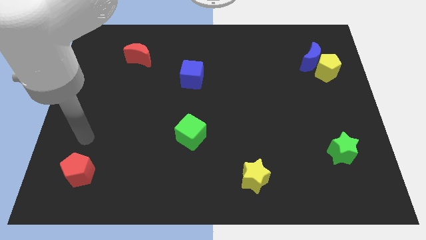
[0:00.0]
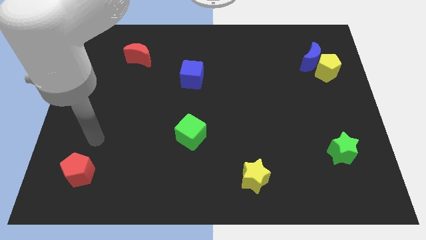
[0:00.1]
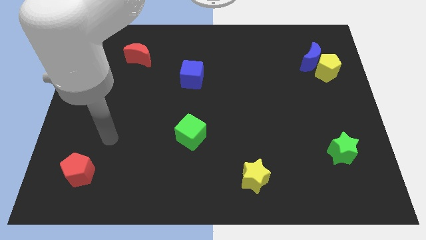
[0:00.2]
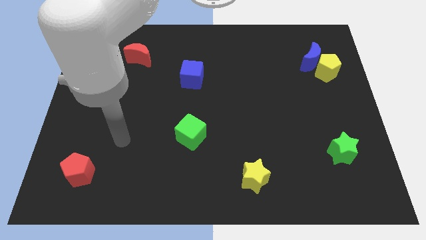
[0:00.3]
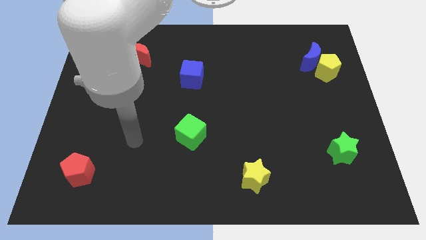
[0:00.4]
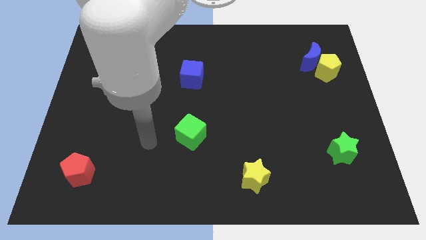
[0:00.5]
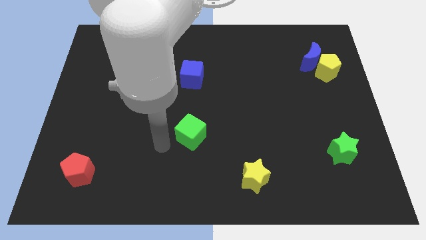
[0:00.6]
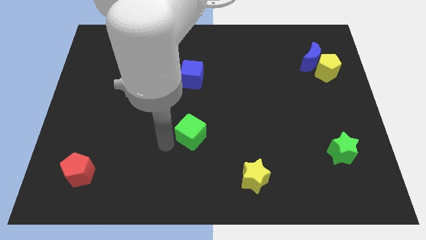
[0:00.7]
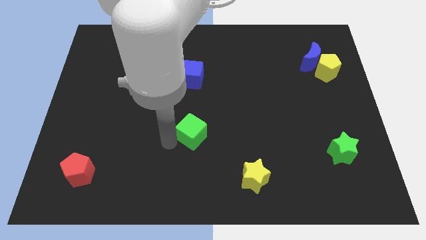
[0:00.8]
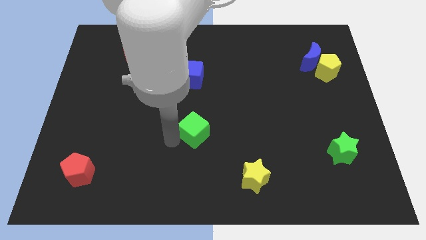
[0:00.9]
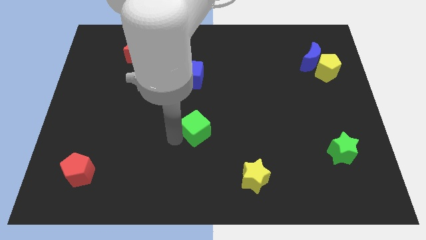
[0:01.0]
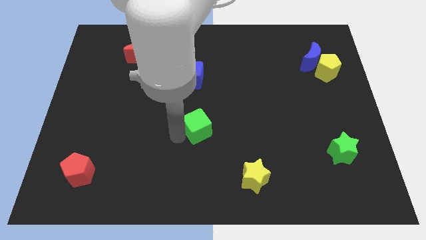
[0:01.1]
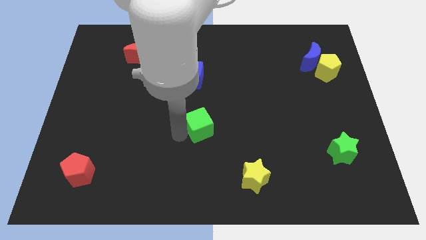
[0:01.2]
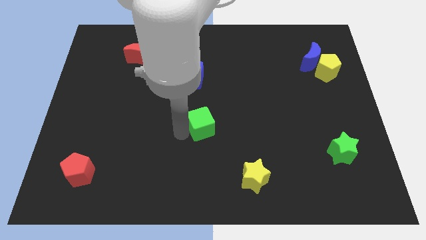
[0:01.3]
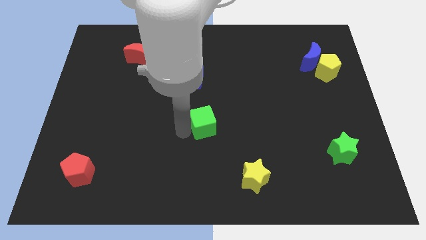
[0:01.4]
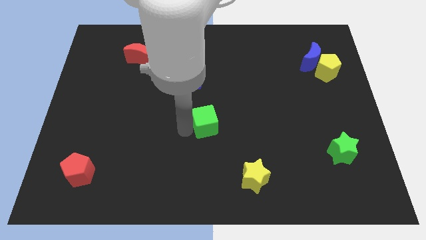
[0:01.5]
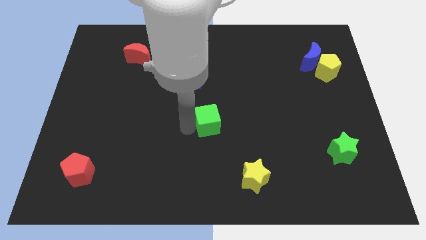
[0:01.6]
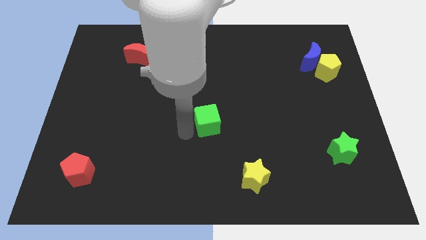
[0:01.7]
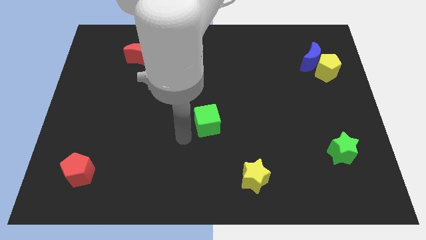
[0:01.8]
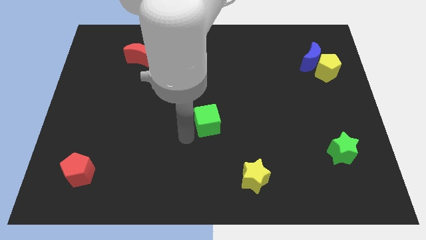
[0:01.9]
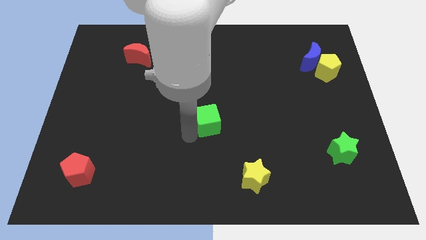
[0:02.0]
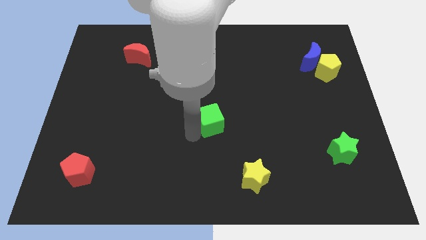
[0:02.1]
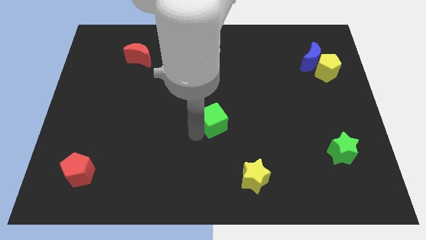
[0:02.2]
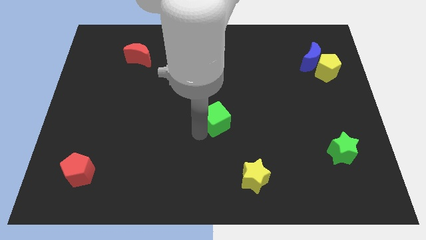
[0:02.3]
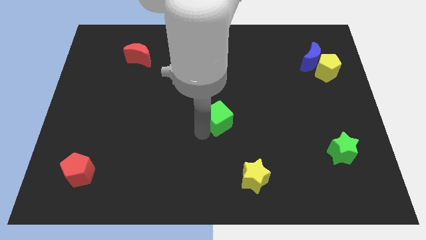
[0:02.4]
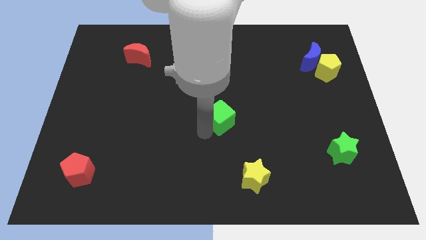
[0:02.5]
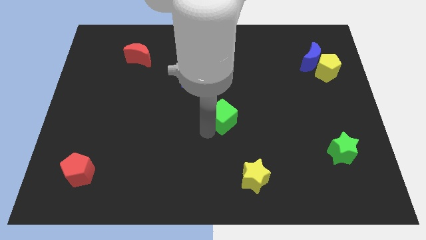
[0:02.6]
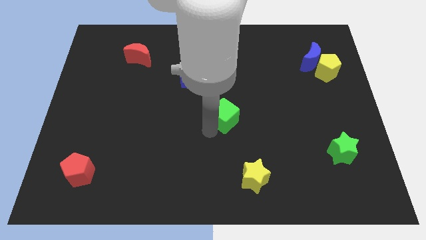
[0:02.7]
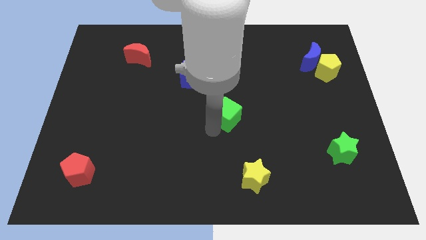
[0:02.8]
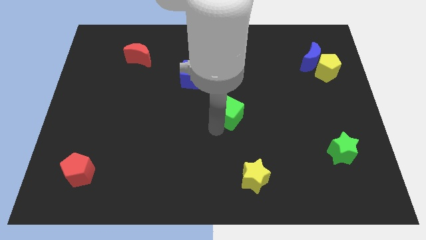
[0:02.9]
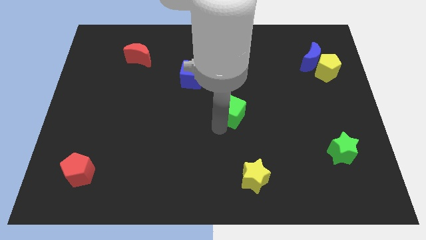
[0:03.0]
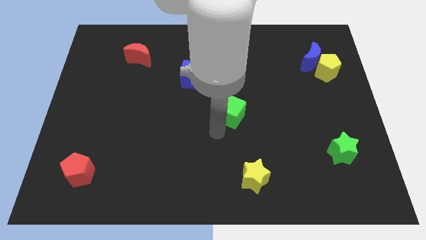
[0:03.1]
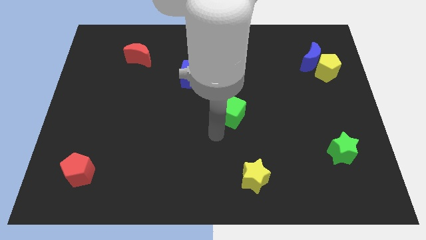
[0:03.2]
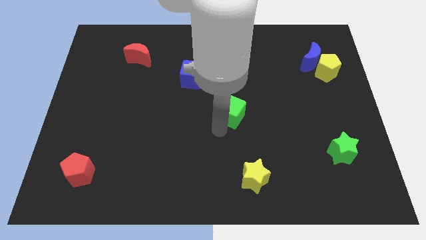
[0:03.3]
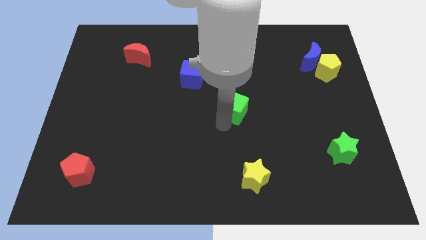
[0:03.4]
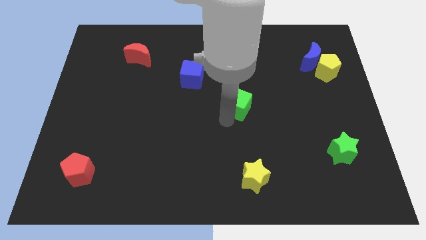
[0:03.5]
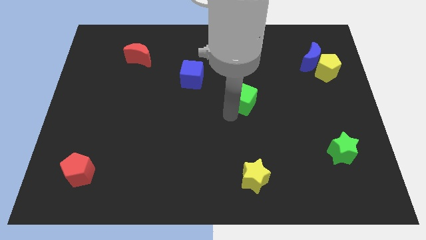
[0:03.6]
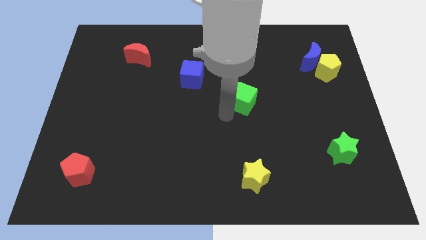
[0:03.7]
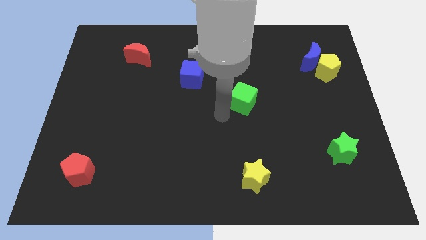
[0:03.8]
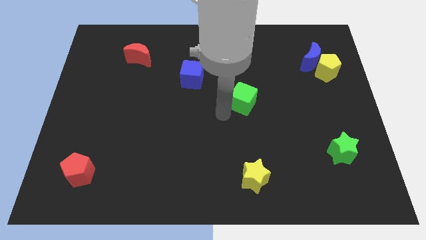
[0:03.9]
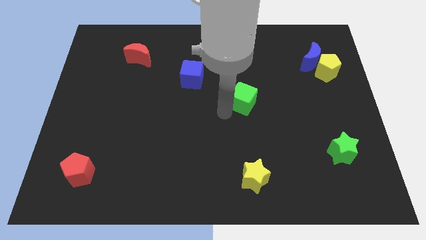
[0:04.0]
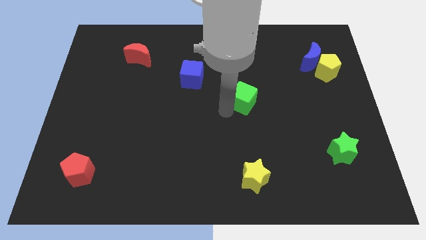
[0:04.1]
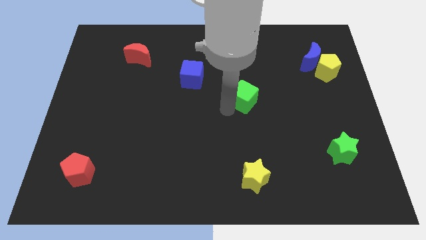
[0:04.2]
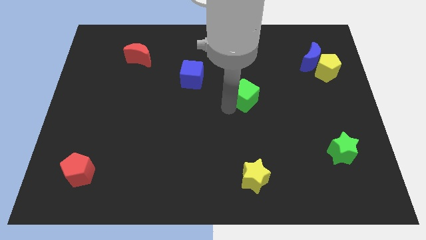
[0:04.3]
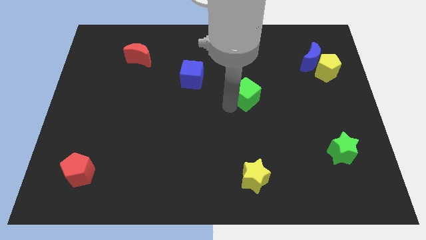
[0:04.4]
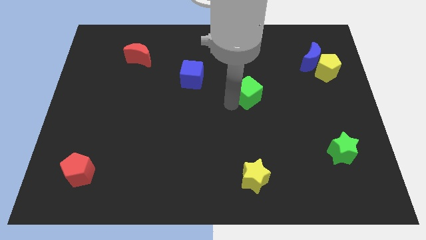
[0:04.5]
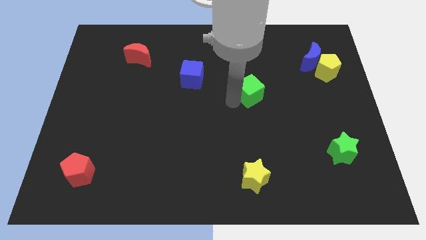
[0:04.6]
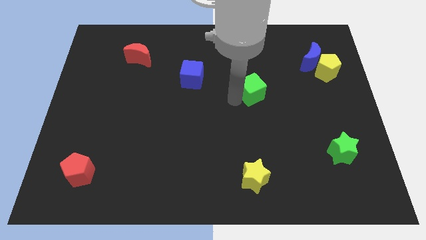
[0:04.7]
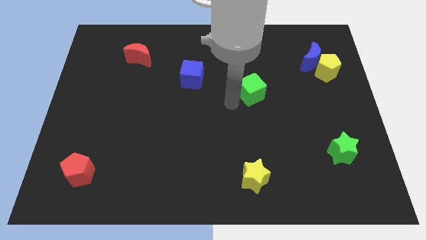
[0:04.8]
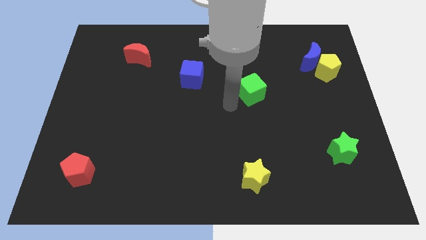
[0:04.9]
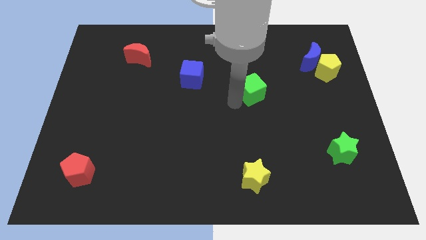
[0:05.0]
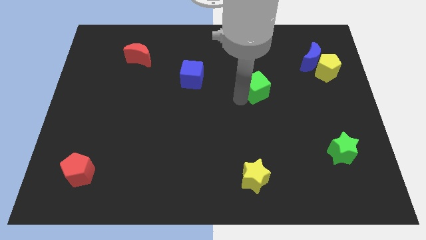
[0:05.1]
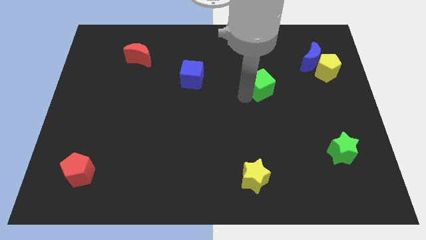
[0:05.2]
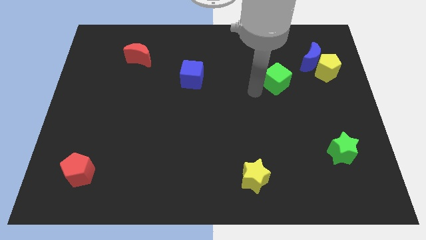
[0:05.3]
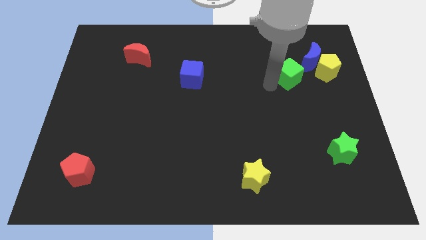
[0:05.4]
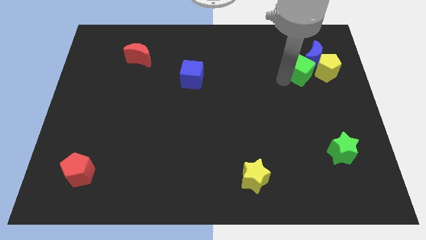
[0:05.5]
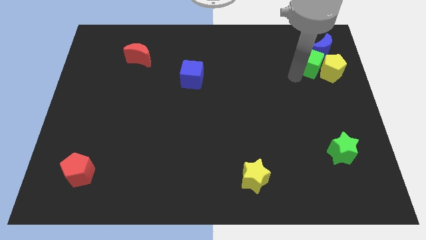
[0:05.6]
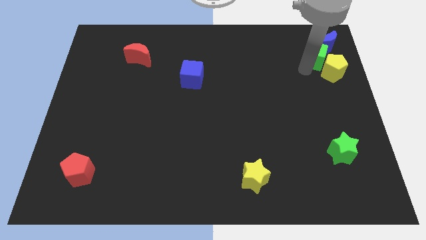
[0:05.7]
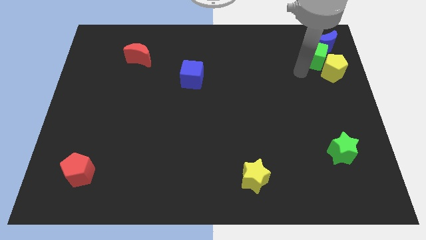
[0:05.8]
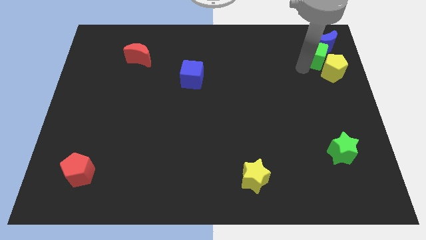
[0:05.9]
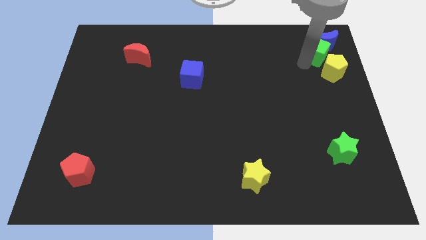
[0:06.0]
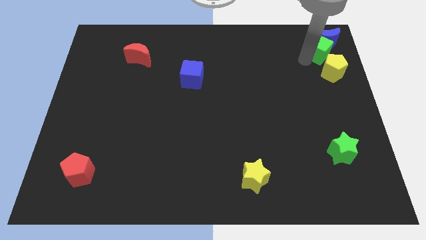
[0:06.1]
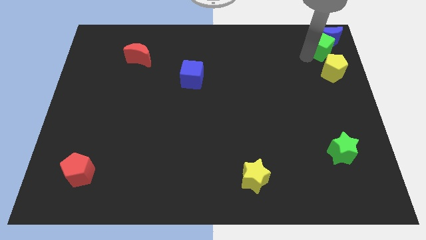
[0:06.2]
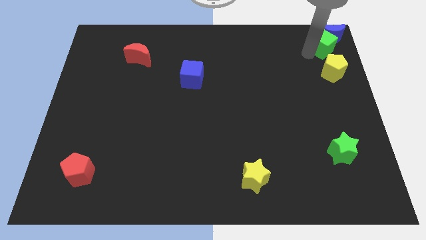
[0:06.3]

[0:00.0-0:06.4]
slide the green cube to the top right
